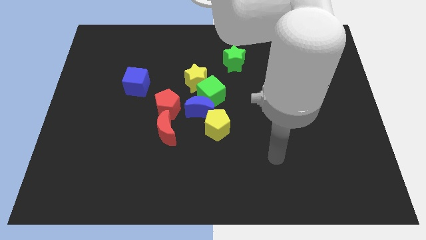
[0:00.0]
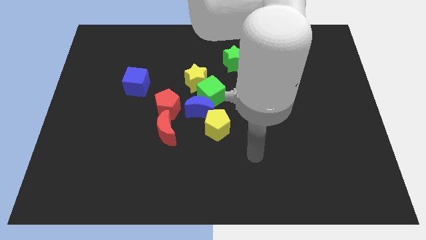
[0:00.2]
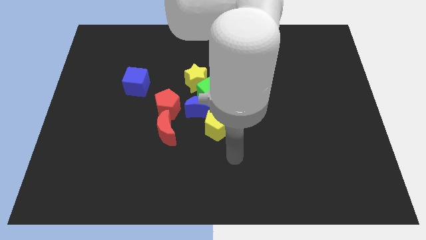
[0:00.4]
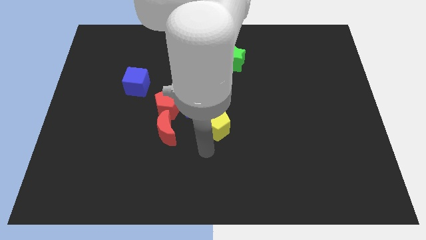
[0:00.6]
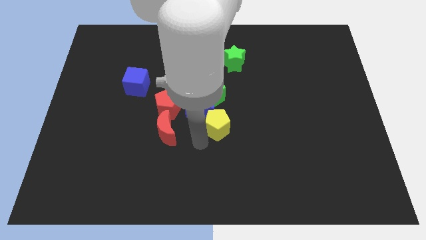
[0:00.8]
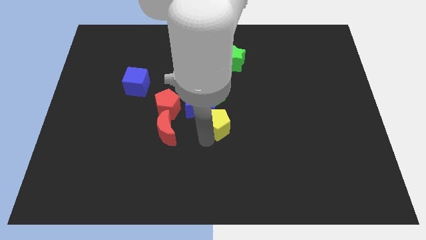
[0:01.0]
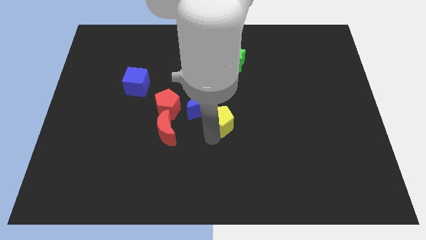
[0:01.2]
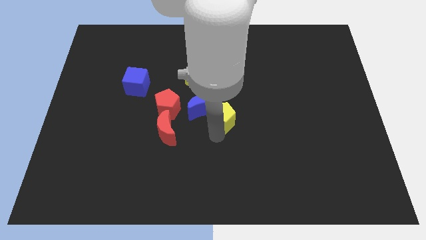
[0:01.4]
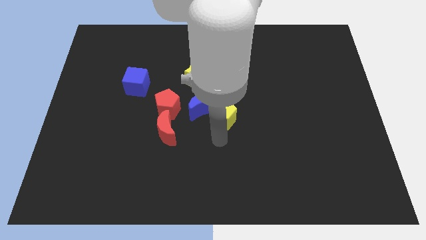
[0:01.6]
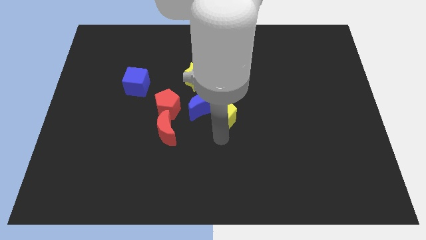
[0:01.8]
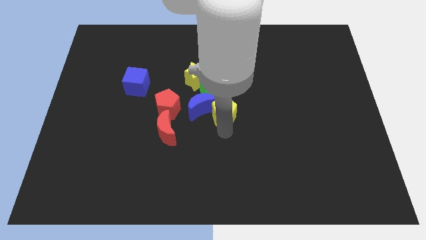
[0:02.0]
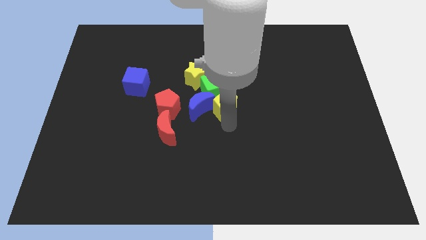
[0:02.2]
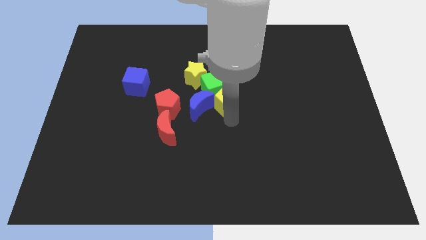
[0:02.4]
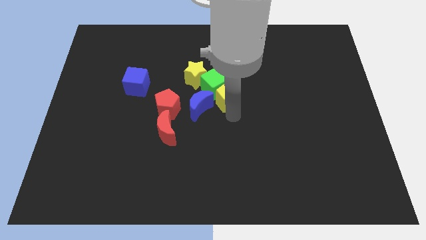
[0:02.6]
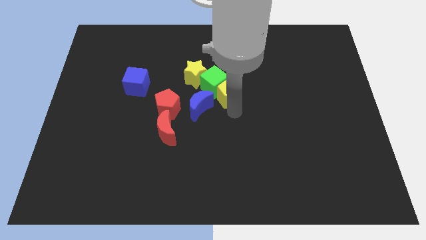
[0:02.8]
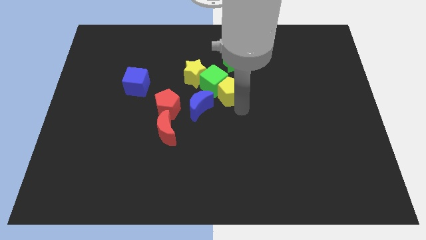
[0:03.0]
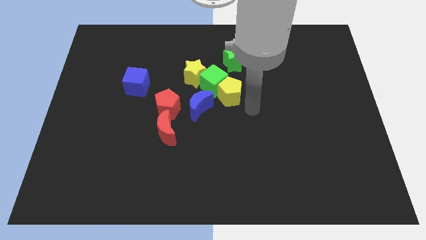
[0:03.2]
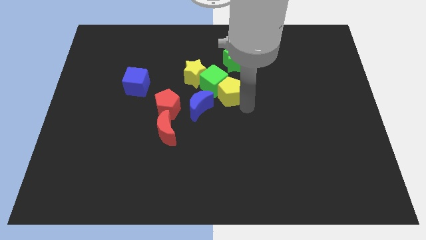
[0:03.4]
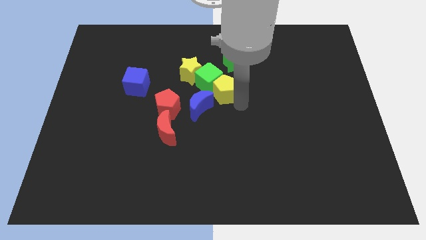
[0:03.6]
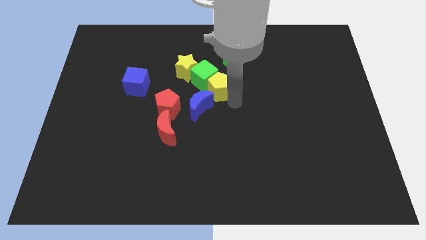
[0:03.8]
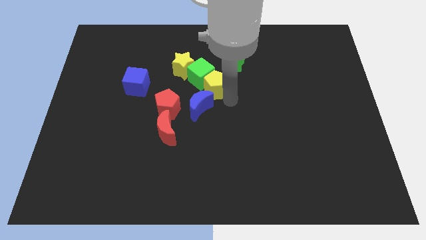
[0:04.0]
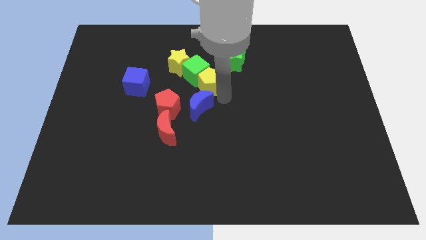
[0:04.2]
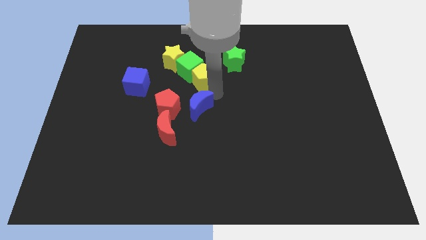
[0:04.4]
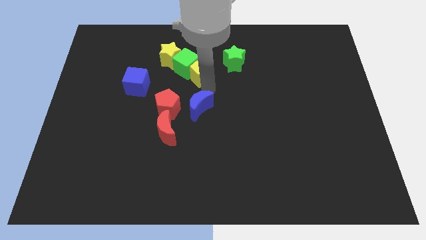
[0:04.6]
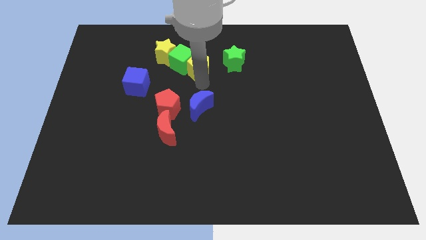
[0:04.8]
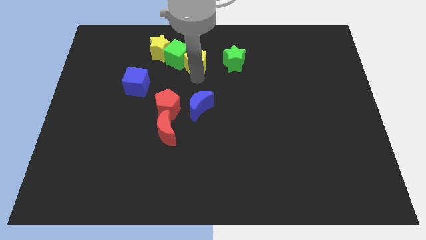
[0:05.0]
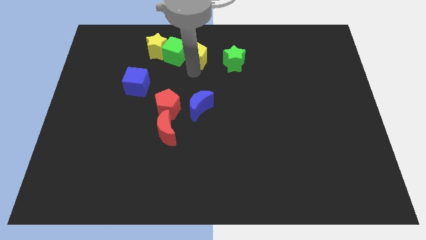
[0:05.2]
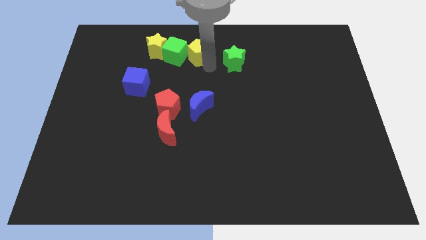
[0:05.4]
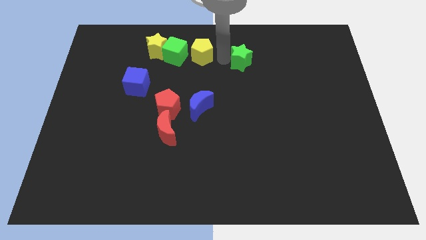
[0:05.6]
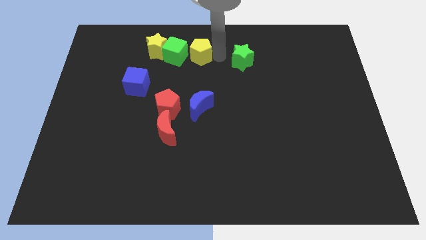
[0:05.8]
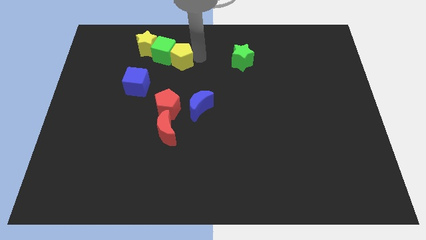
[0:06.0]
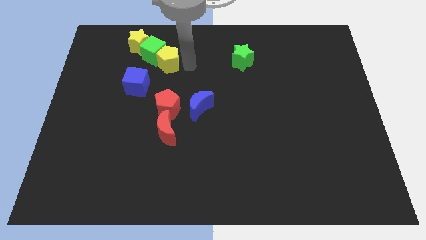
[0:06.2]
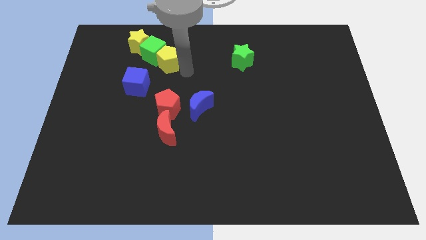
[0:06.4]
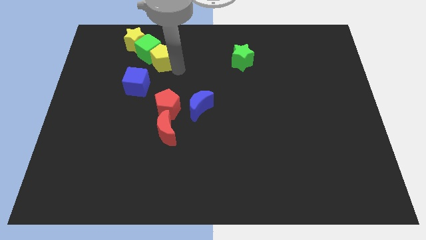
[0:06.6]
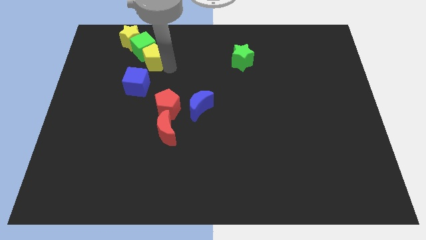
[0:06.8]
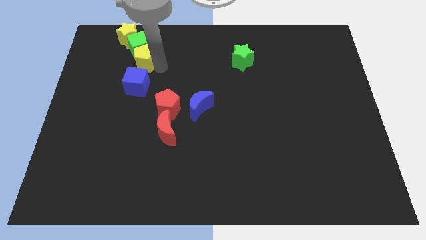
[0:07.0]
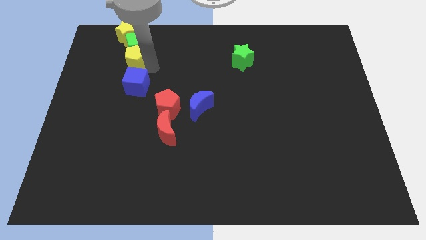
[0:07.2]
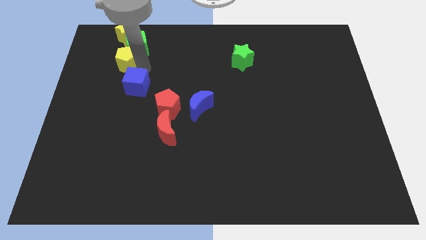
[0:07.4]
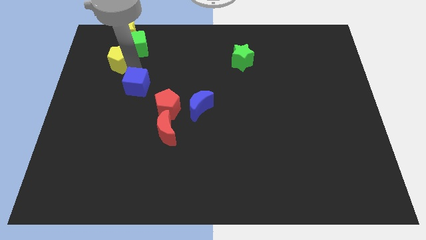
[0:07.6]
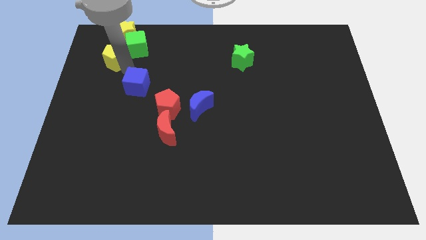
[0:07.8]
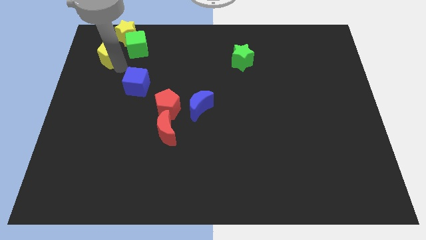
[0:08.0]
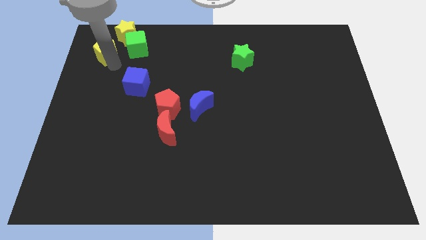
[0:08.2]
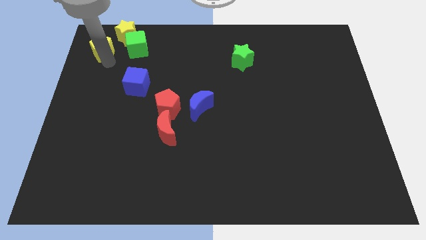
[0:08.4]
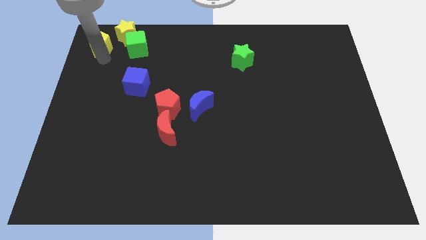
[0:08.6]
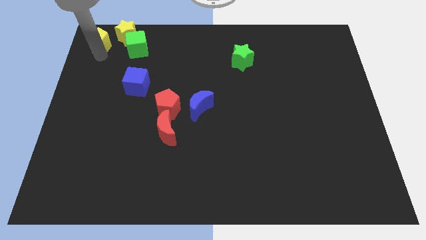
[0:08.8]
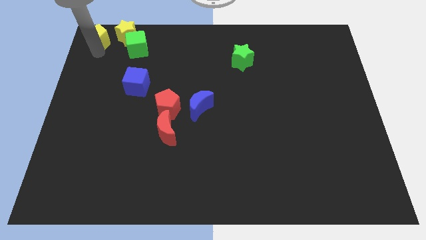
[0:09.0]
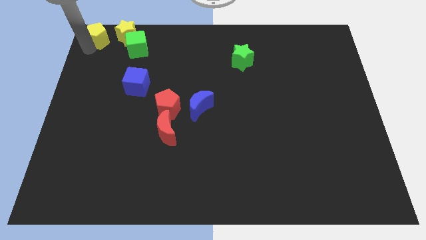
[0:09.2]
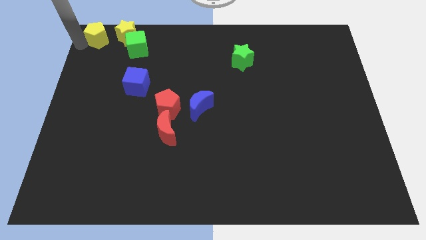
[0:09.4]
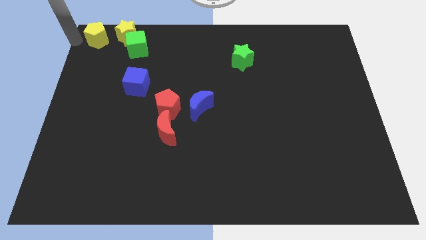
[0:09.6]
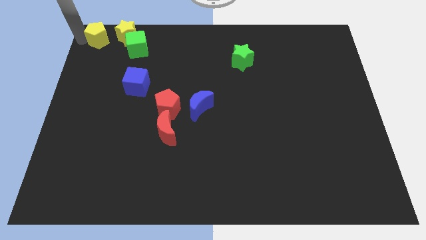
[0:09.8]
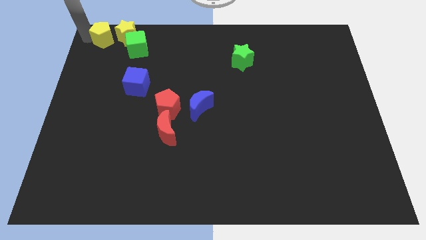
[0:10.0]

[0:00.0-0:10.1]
slide the yellow pentagon to the yellow star

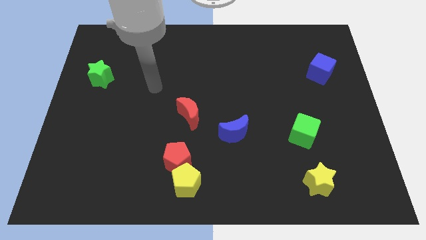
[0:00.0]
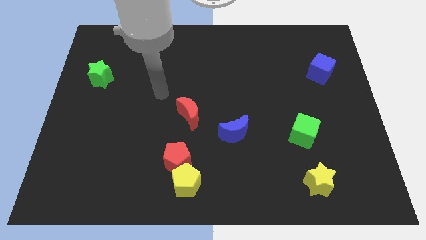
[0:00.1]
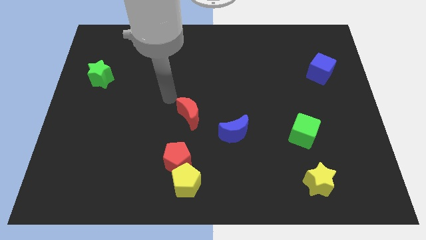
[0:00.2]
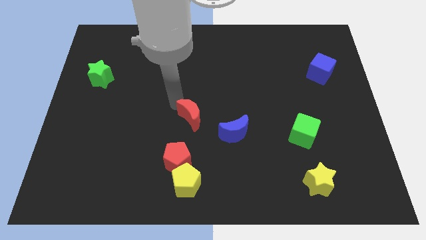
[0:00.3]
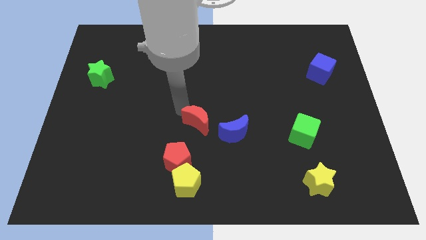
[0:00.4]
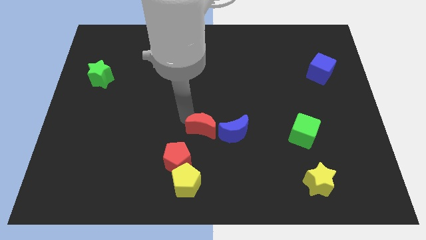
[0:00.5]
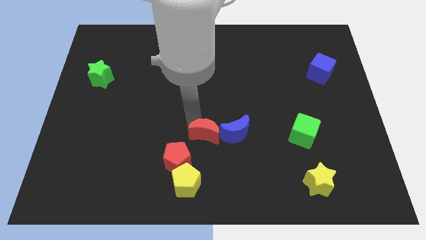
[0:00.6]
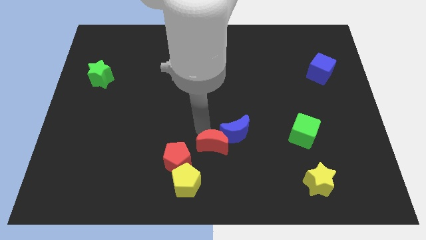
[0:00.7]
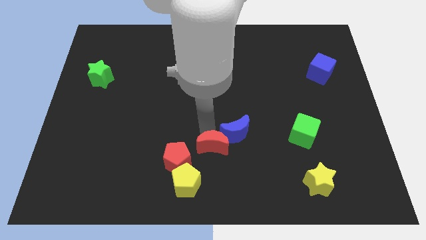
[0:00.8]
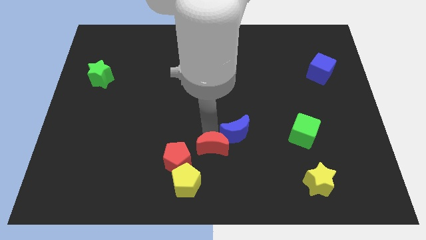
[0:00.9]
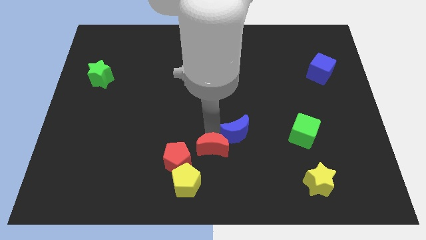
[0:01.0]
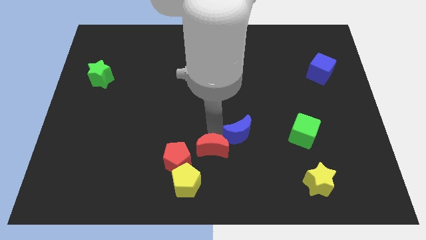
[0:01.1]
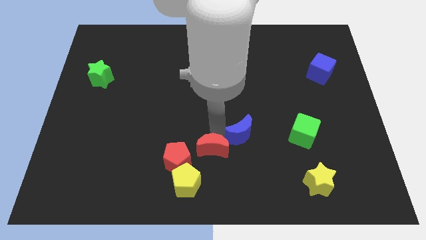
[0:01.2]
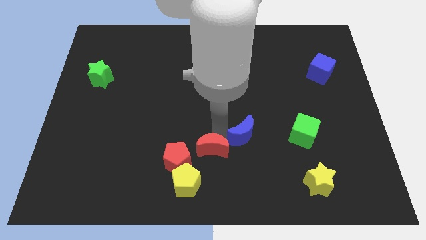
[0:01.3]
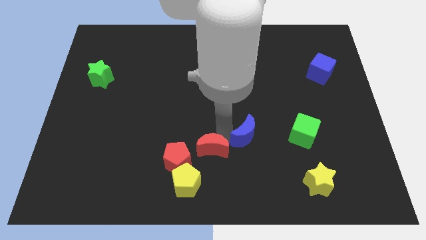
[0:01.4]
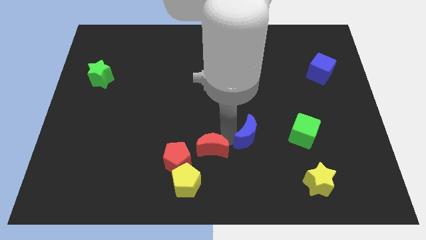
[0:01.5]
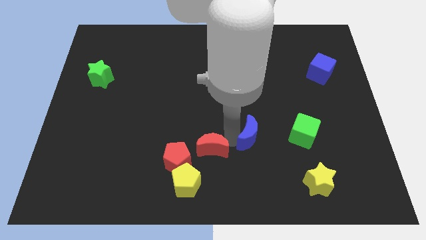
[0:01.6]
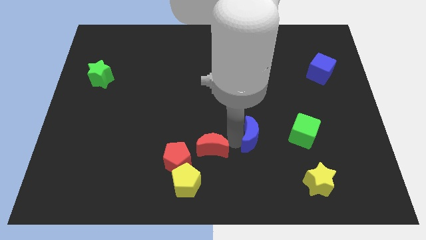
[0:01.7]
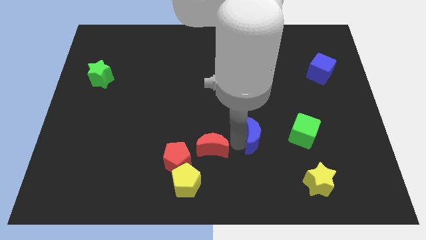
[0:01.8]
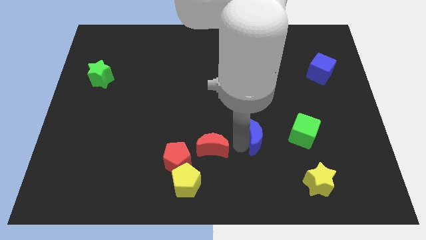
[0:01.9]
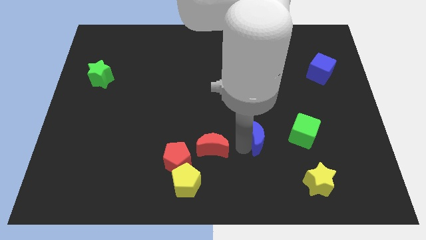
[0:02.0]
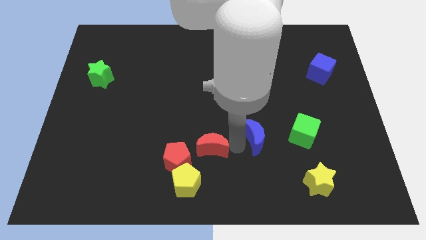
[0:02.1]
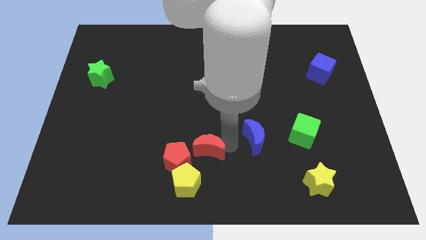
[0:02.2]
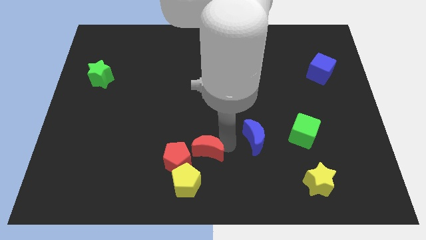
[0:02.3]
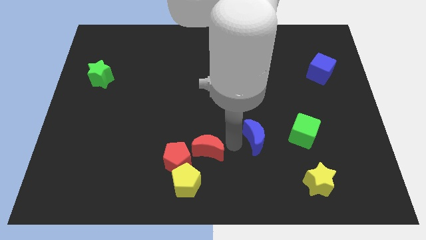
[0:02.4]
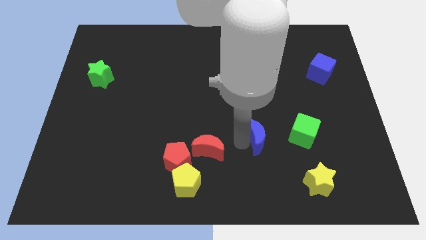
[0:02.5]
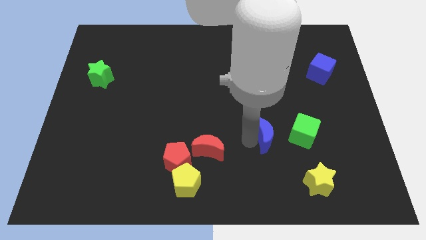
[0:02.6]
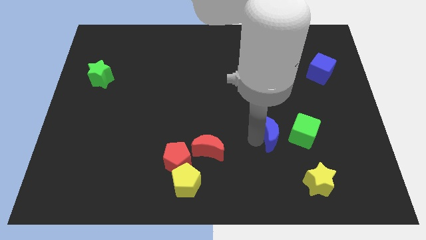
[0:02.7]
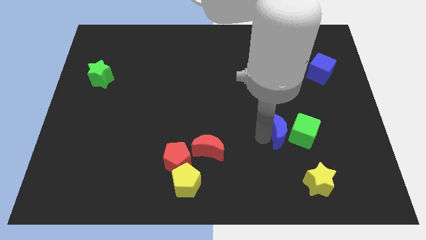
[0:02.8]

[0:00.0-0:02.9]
push the blue moon towards the green cube
